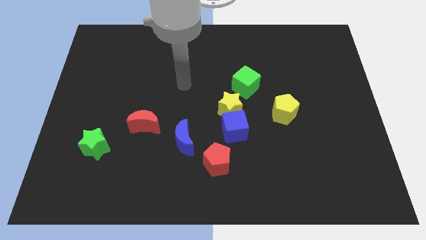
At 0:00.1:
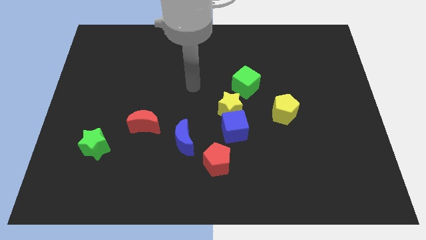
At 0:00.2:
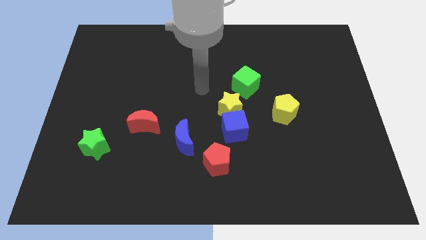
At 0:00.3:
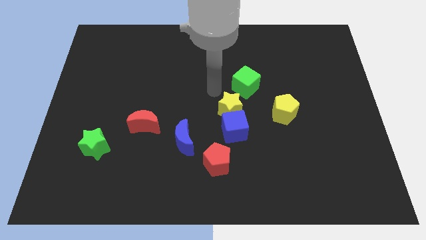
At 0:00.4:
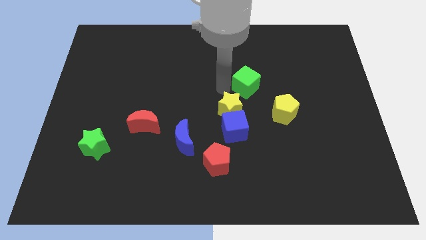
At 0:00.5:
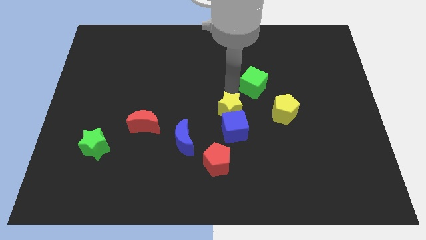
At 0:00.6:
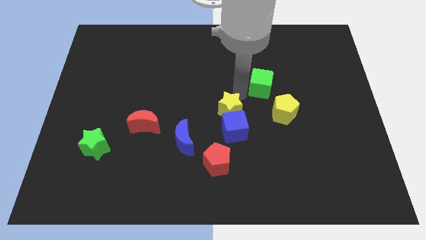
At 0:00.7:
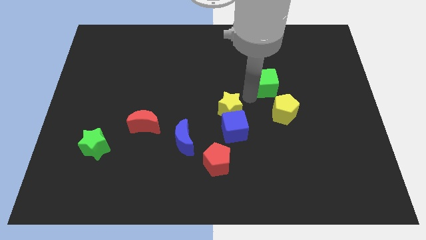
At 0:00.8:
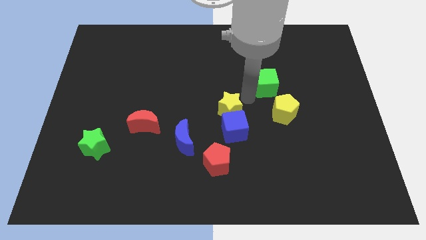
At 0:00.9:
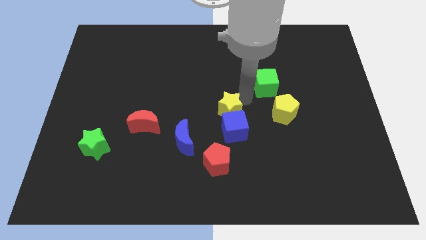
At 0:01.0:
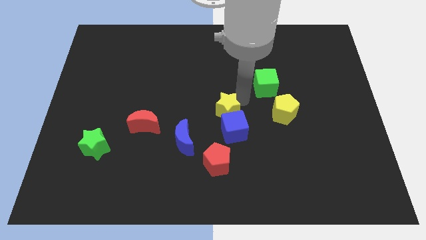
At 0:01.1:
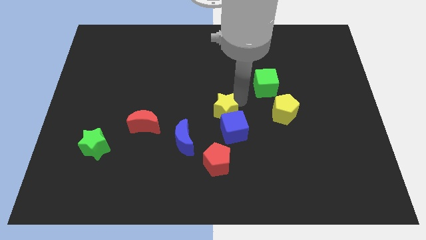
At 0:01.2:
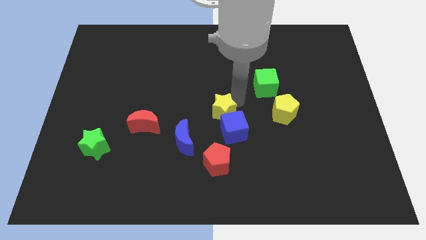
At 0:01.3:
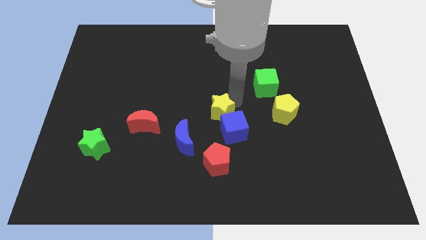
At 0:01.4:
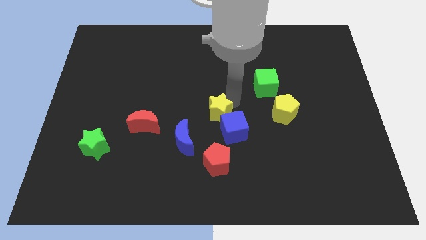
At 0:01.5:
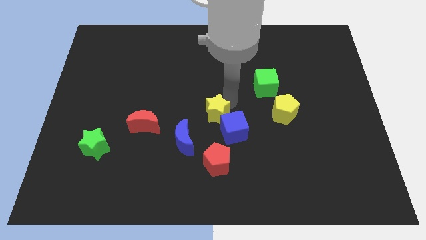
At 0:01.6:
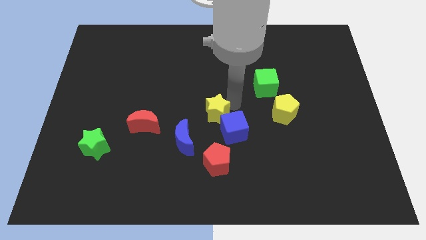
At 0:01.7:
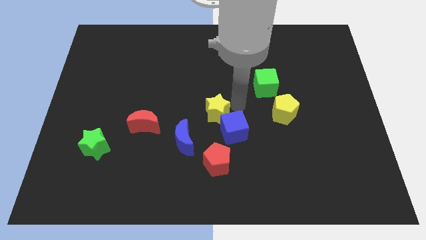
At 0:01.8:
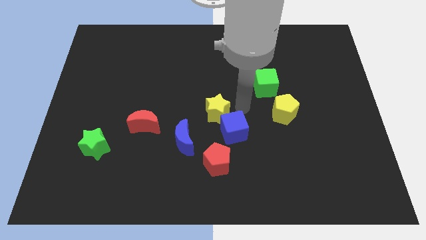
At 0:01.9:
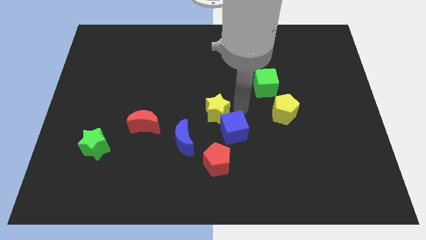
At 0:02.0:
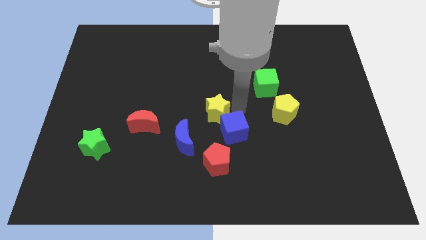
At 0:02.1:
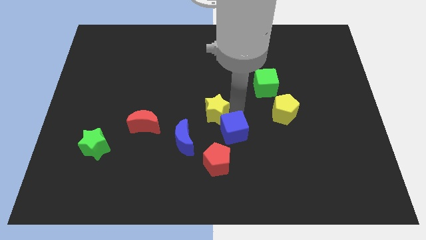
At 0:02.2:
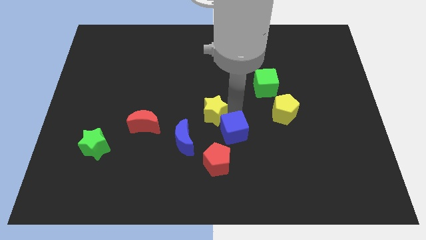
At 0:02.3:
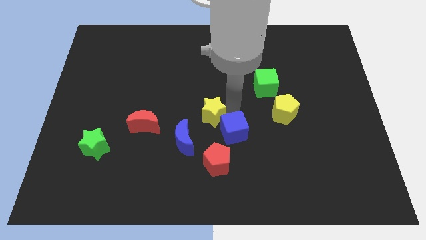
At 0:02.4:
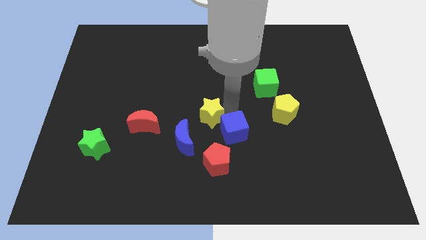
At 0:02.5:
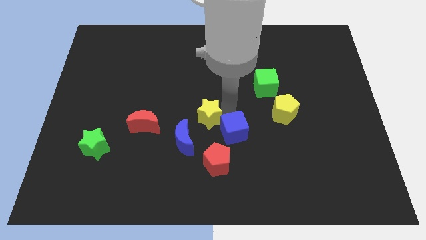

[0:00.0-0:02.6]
separate the yellow star from the blue cube and green cube

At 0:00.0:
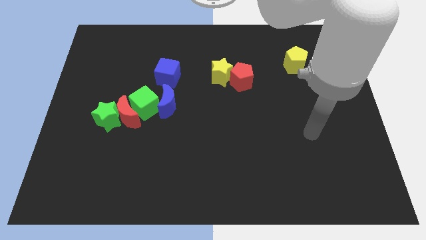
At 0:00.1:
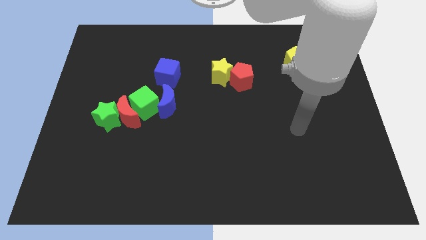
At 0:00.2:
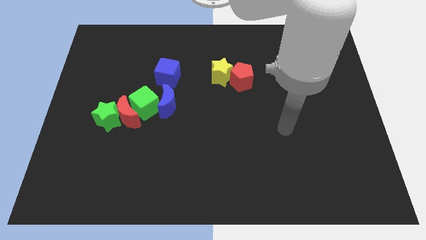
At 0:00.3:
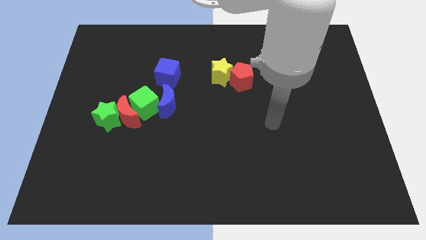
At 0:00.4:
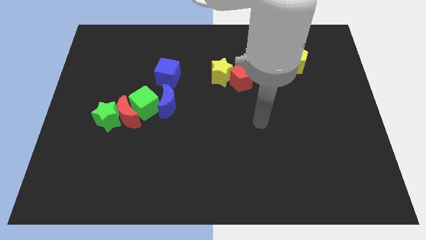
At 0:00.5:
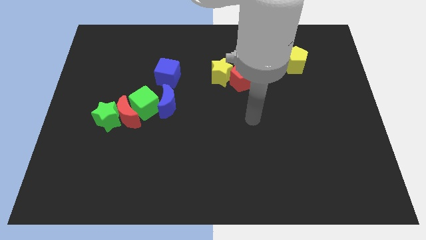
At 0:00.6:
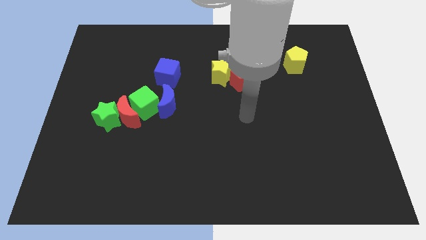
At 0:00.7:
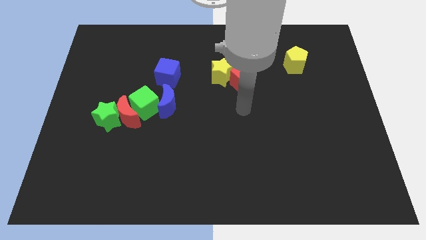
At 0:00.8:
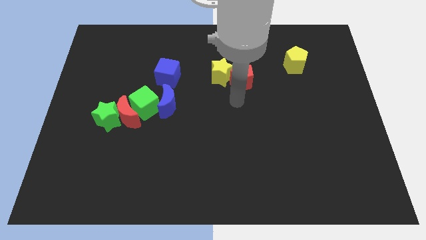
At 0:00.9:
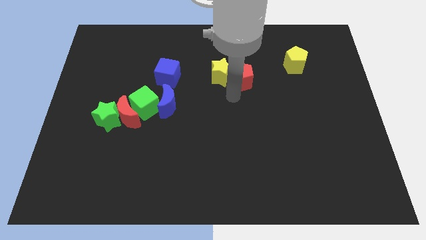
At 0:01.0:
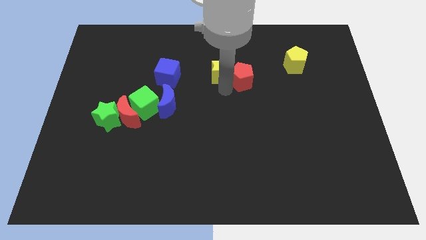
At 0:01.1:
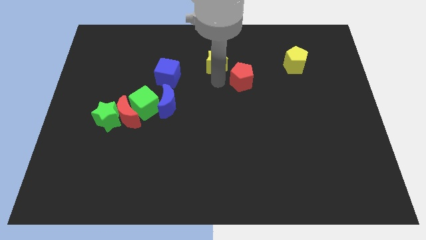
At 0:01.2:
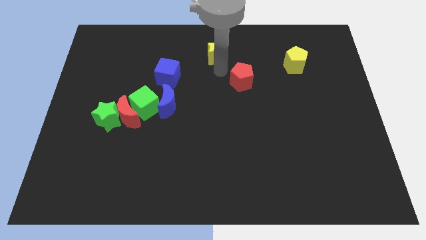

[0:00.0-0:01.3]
pull the red pentagon apart from the yellow star

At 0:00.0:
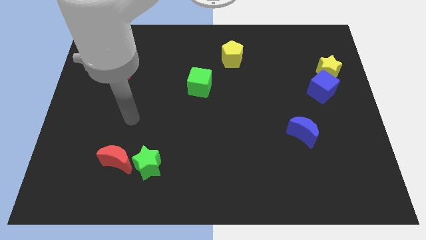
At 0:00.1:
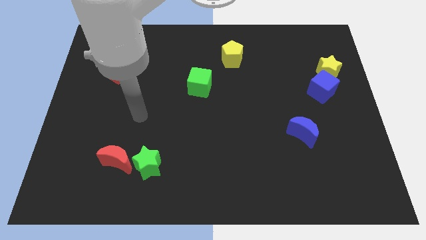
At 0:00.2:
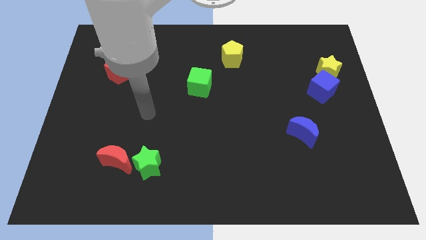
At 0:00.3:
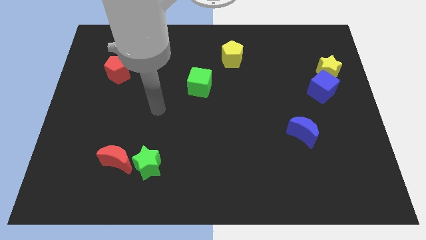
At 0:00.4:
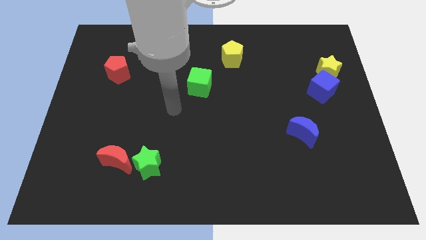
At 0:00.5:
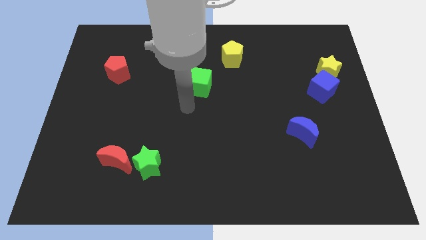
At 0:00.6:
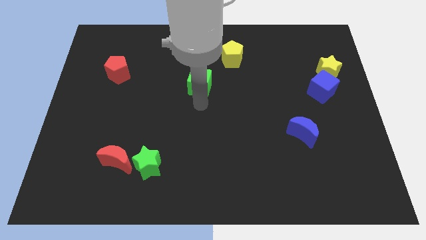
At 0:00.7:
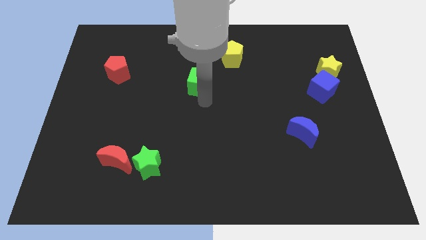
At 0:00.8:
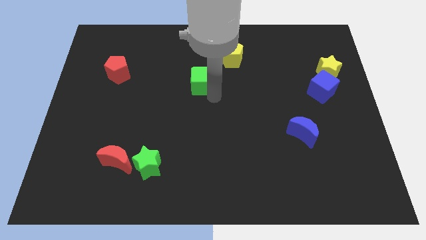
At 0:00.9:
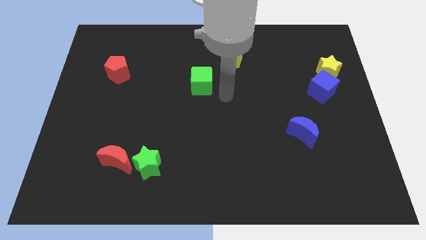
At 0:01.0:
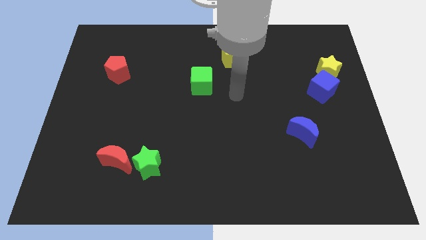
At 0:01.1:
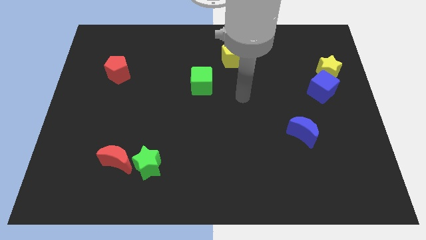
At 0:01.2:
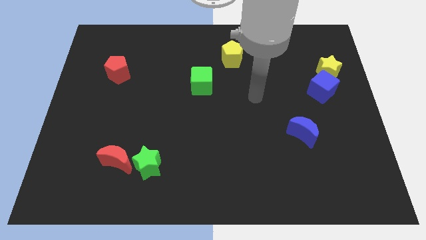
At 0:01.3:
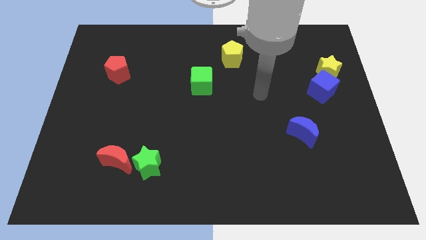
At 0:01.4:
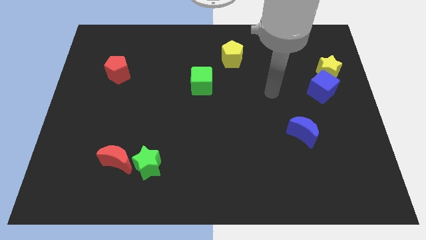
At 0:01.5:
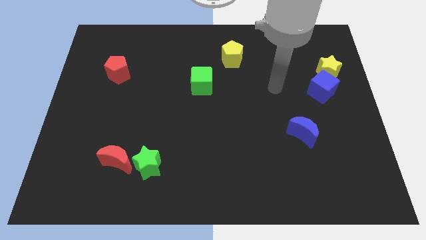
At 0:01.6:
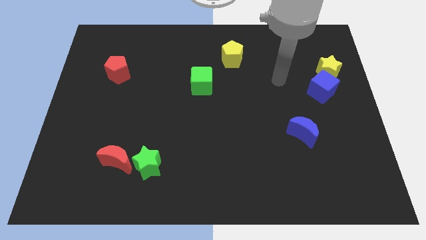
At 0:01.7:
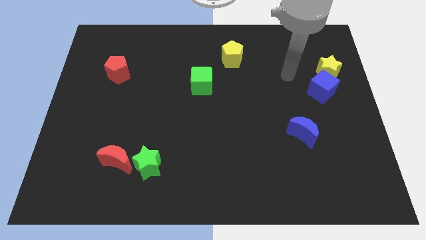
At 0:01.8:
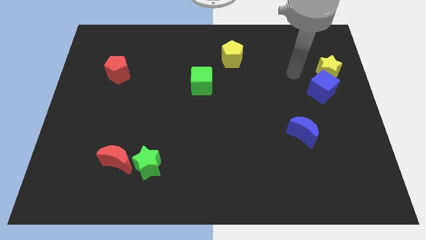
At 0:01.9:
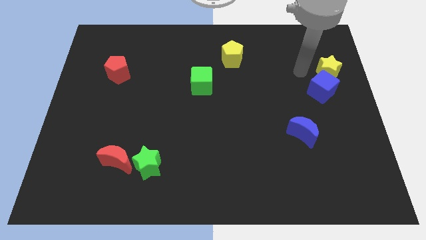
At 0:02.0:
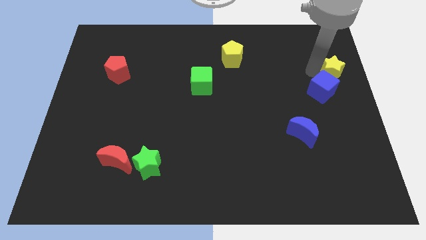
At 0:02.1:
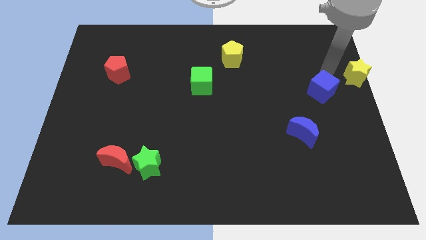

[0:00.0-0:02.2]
pull the blue cube apart from the yellow star

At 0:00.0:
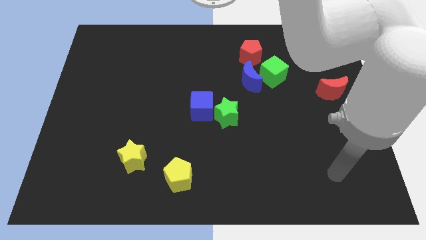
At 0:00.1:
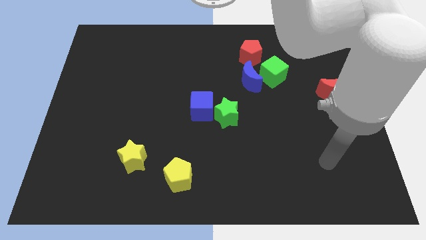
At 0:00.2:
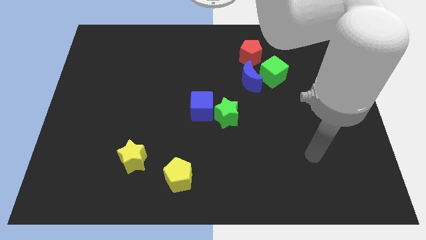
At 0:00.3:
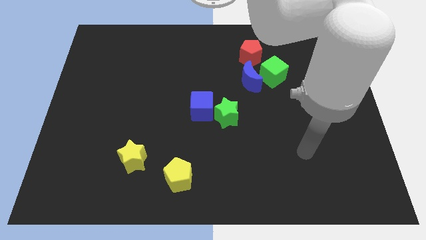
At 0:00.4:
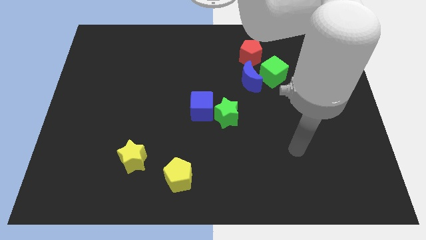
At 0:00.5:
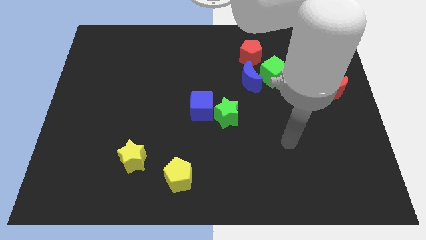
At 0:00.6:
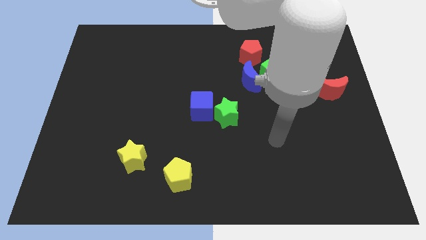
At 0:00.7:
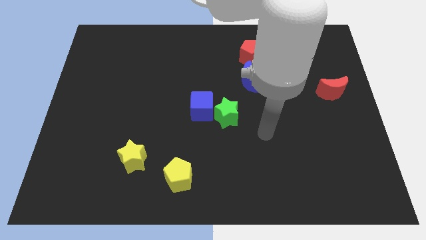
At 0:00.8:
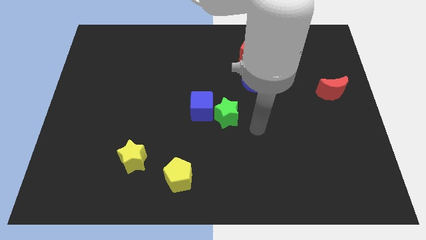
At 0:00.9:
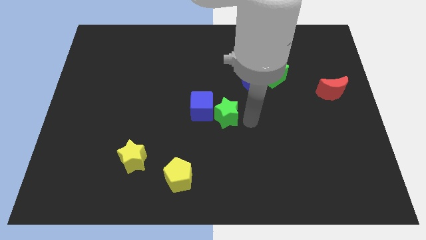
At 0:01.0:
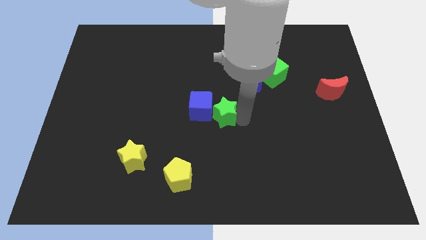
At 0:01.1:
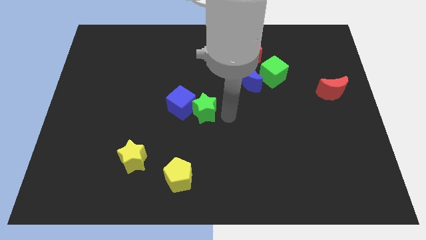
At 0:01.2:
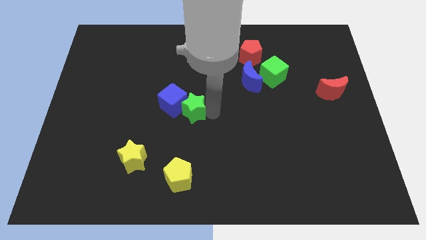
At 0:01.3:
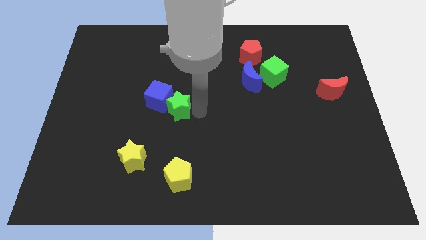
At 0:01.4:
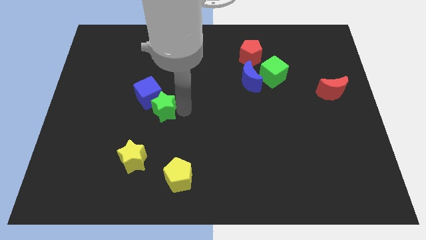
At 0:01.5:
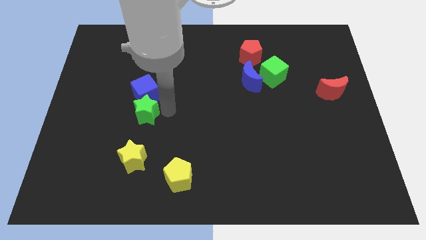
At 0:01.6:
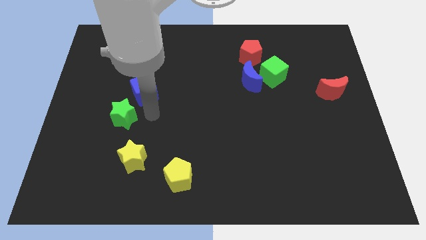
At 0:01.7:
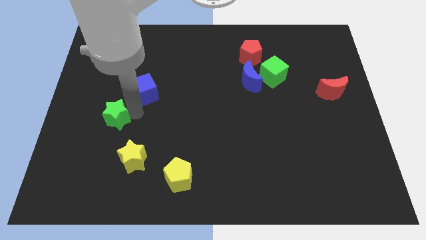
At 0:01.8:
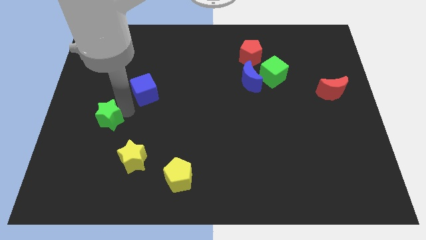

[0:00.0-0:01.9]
pull the blue cube apart from the green star

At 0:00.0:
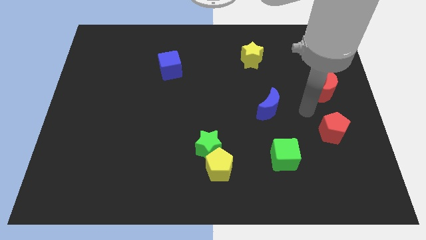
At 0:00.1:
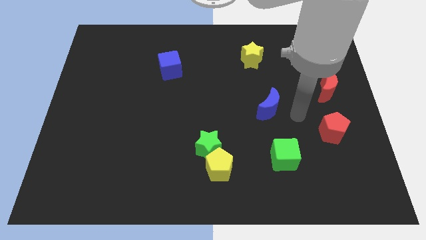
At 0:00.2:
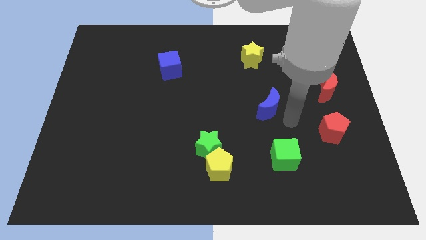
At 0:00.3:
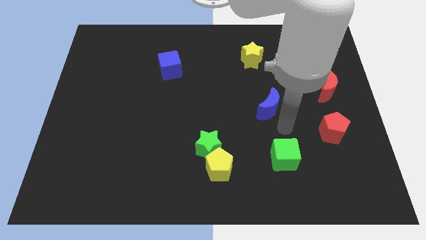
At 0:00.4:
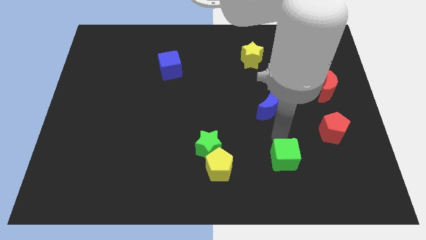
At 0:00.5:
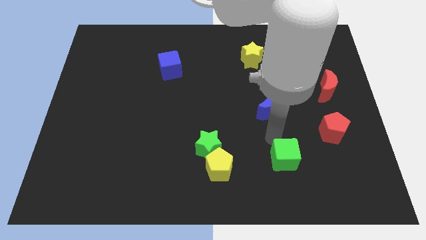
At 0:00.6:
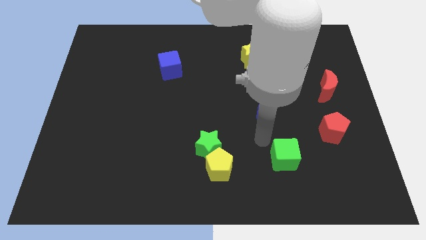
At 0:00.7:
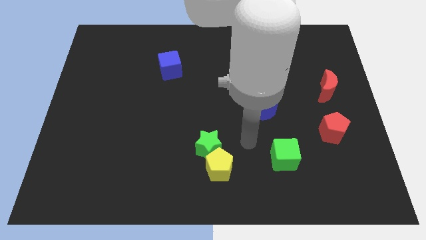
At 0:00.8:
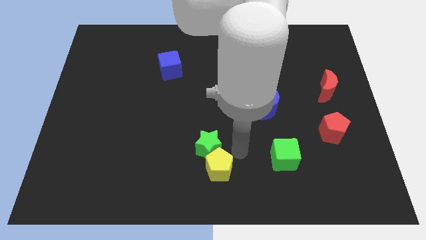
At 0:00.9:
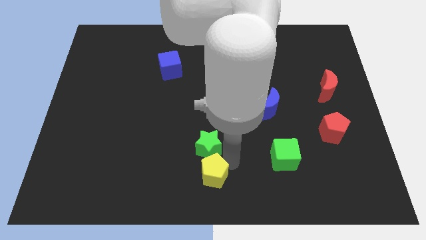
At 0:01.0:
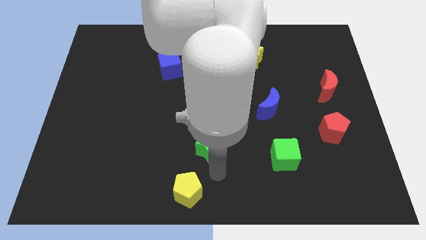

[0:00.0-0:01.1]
pull the green star apart from the yellow pentagon

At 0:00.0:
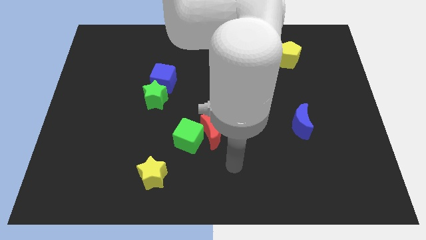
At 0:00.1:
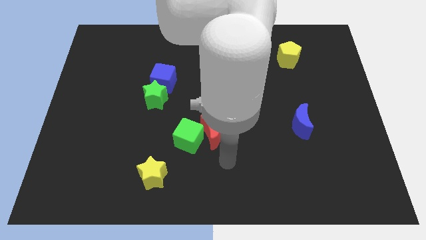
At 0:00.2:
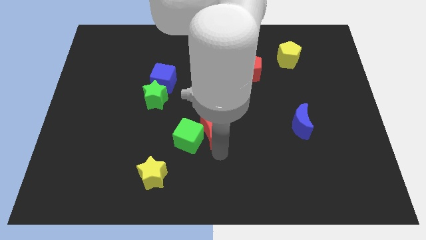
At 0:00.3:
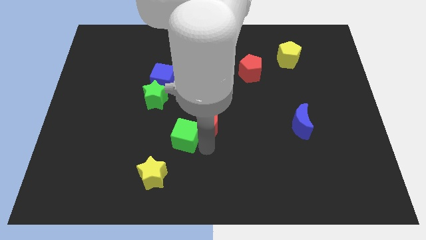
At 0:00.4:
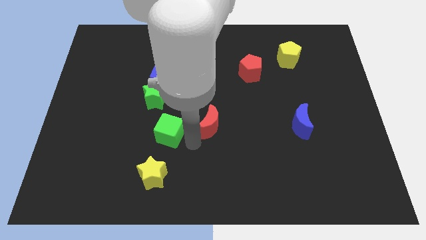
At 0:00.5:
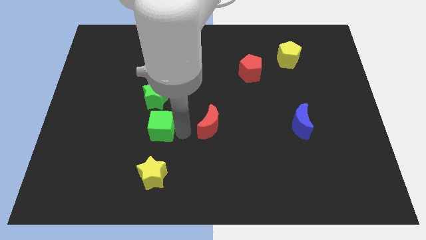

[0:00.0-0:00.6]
move the red moon away from the green cube
